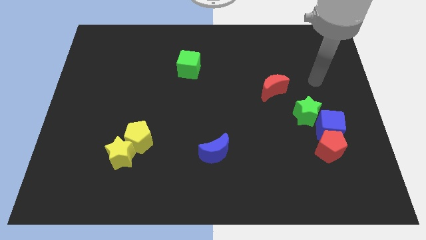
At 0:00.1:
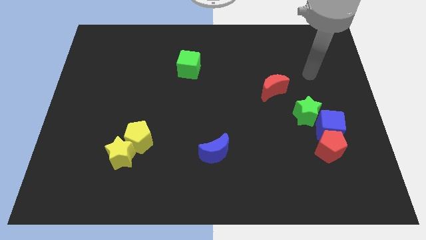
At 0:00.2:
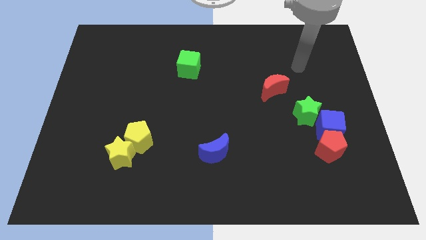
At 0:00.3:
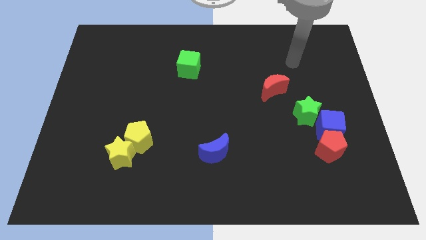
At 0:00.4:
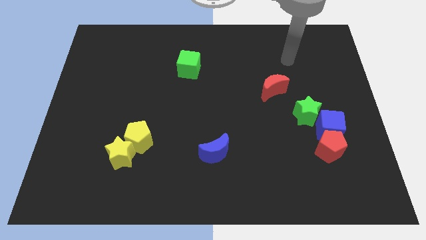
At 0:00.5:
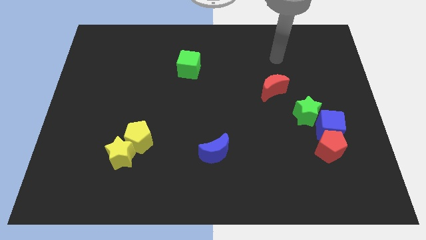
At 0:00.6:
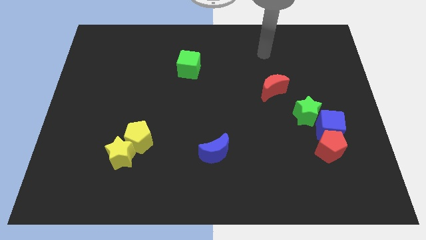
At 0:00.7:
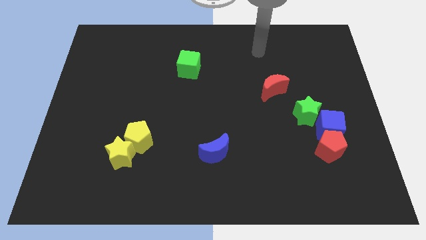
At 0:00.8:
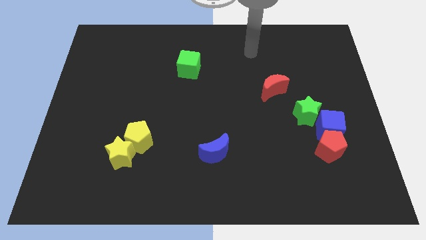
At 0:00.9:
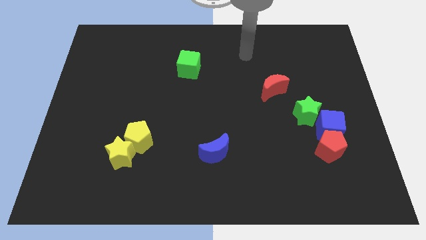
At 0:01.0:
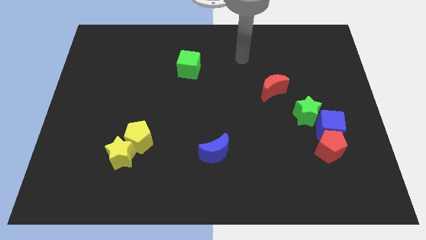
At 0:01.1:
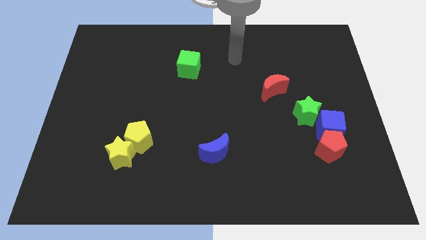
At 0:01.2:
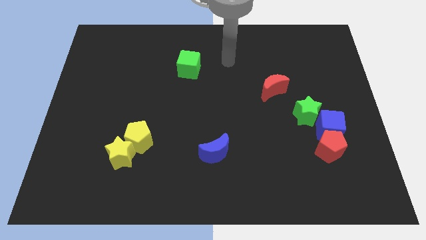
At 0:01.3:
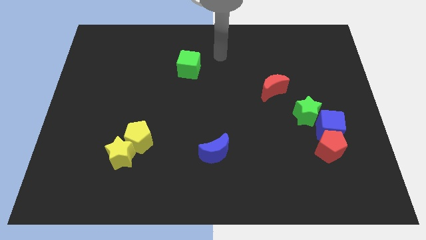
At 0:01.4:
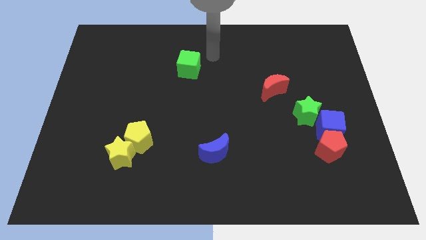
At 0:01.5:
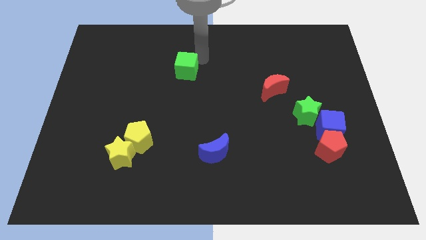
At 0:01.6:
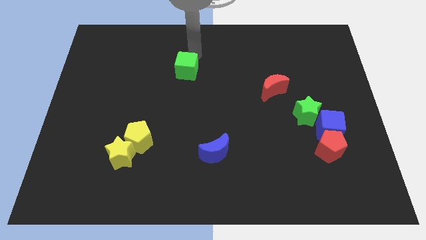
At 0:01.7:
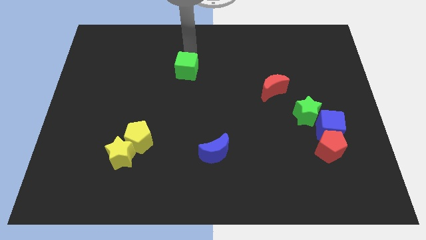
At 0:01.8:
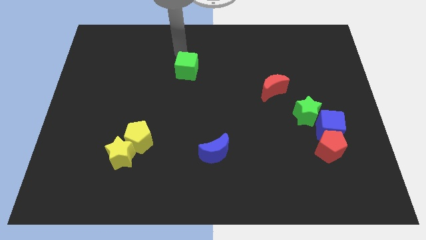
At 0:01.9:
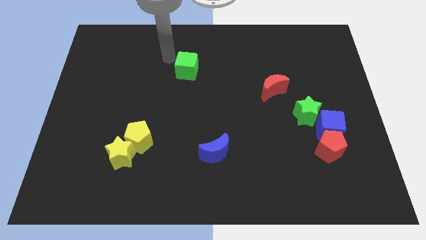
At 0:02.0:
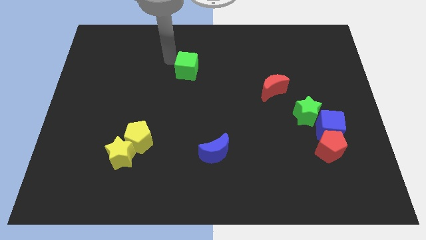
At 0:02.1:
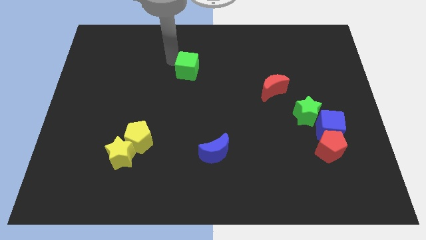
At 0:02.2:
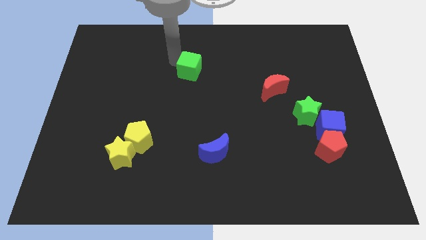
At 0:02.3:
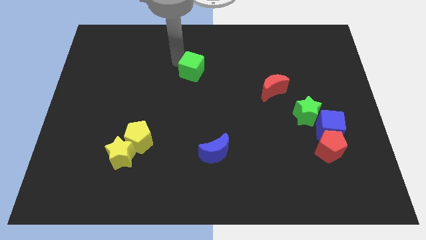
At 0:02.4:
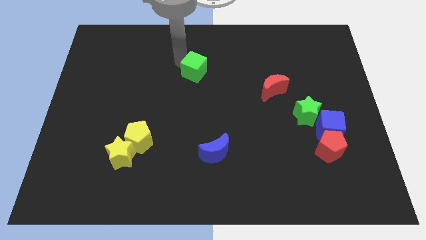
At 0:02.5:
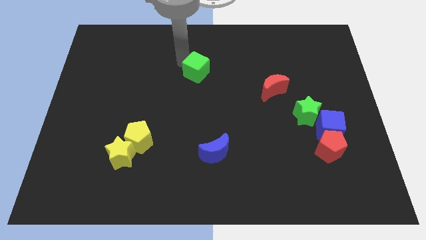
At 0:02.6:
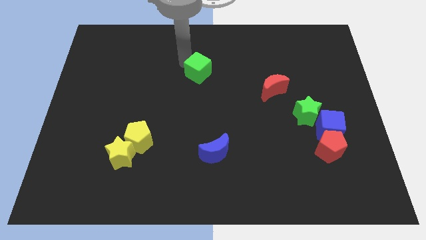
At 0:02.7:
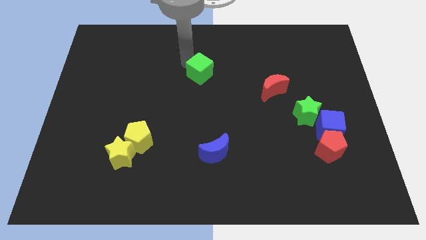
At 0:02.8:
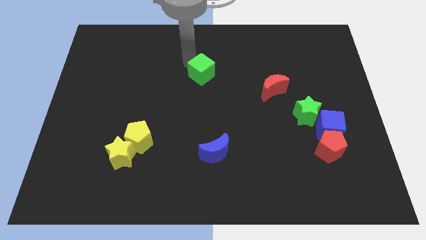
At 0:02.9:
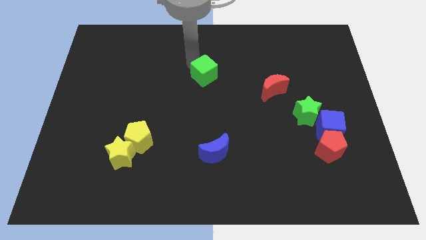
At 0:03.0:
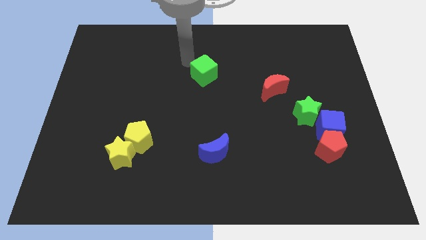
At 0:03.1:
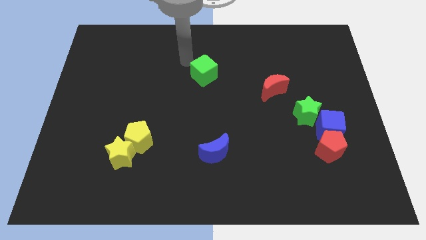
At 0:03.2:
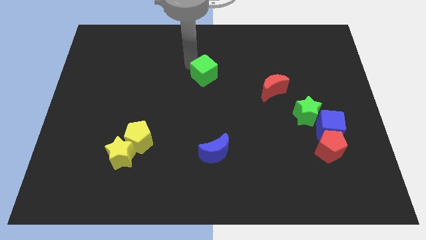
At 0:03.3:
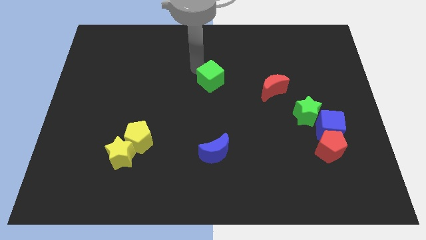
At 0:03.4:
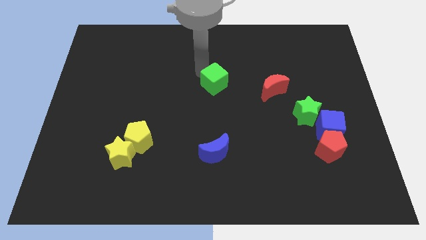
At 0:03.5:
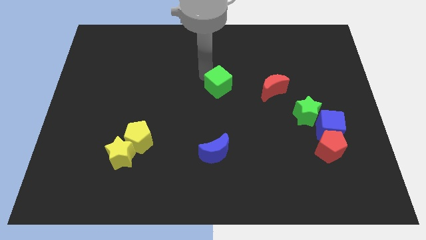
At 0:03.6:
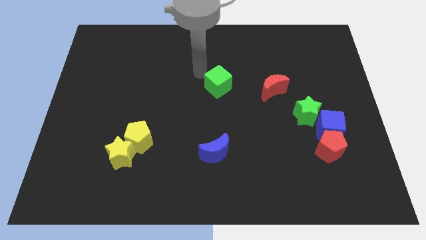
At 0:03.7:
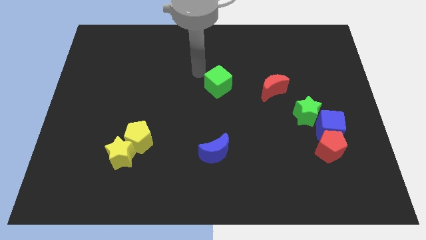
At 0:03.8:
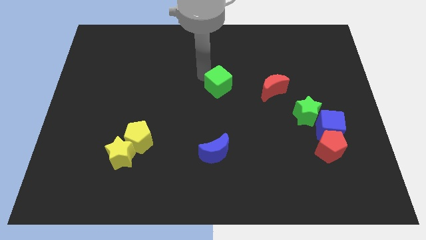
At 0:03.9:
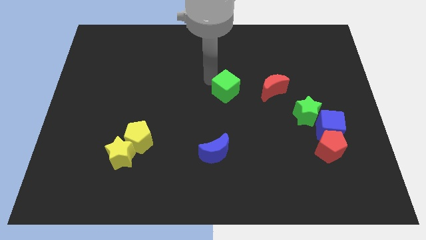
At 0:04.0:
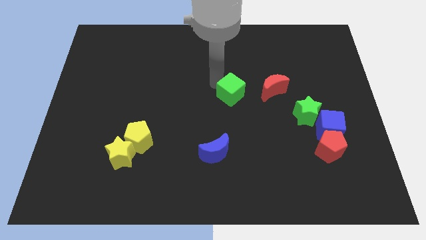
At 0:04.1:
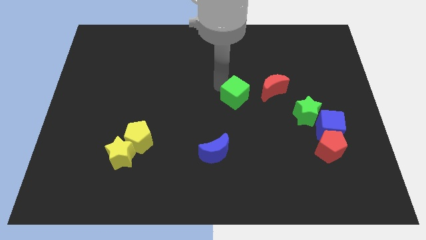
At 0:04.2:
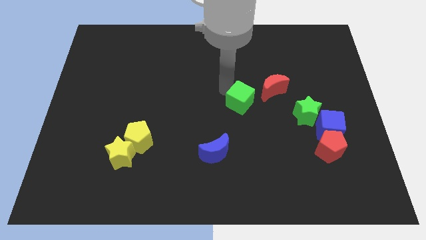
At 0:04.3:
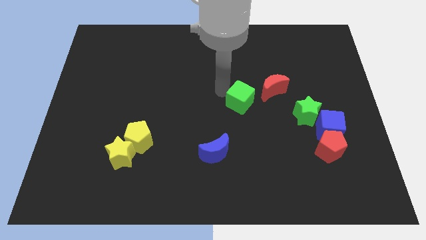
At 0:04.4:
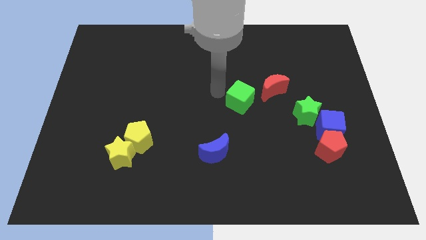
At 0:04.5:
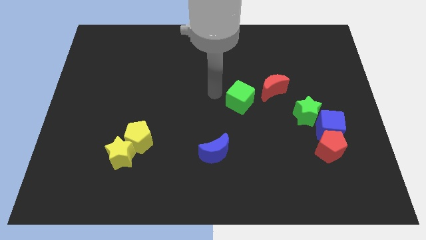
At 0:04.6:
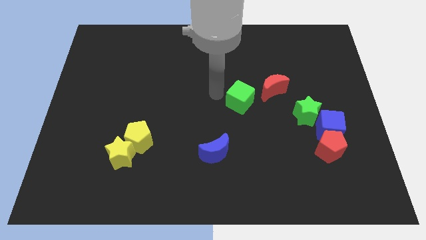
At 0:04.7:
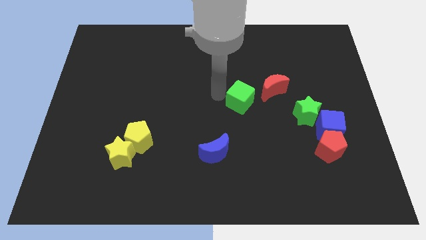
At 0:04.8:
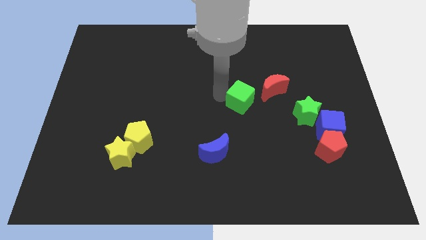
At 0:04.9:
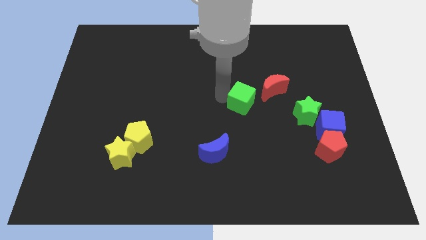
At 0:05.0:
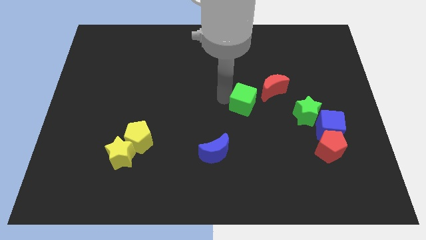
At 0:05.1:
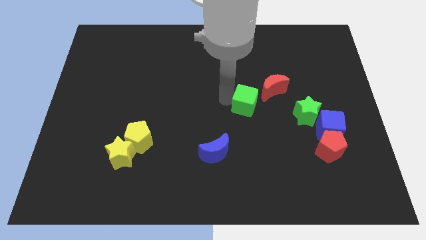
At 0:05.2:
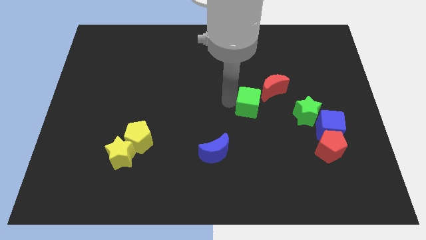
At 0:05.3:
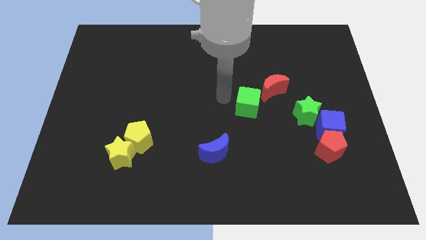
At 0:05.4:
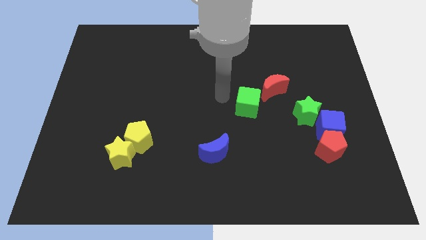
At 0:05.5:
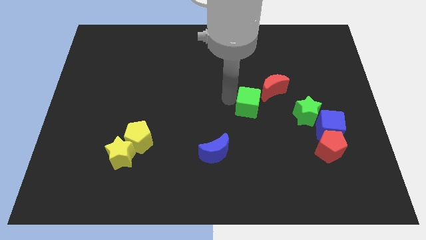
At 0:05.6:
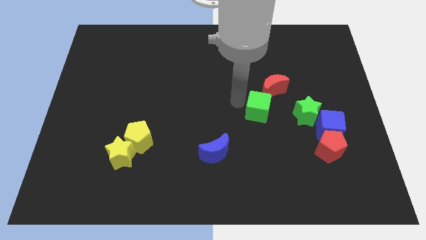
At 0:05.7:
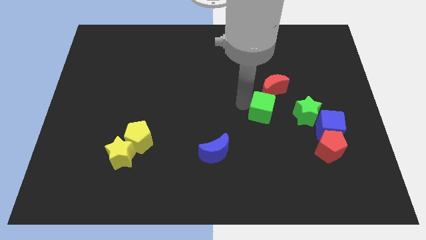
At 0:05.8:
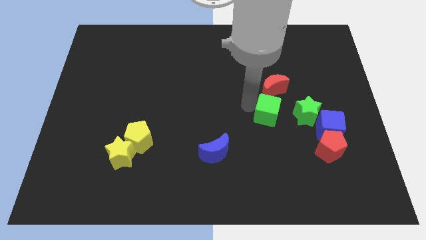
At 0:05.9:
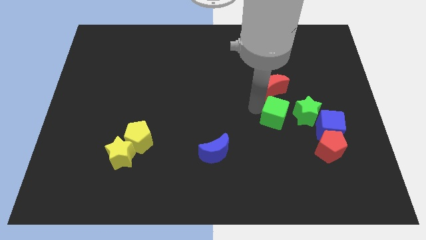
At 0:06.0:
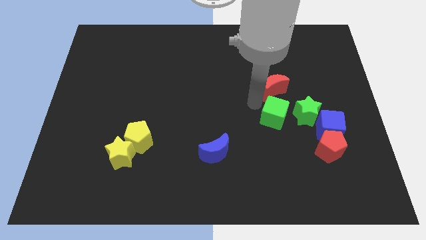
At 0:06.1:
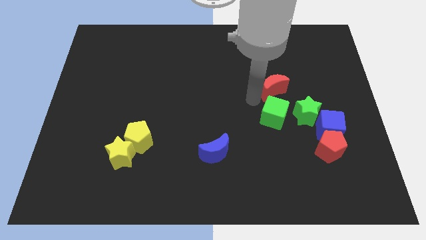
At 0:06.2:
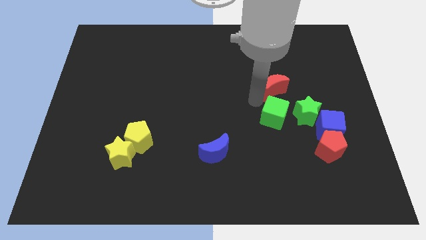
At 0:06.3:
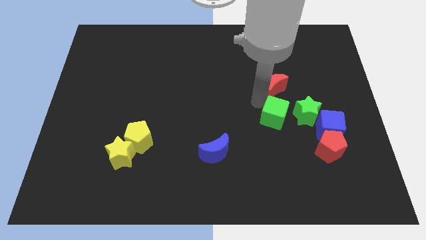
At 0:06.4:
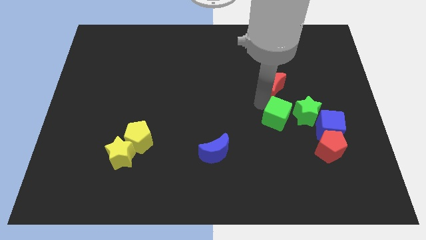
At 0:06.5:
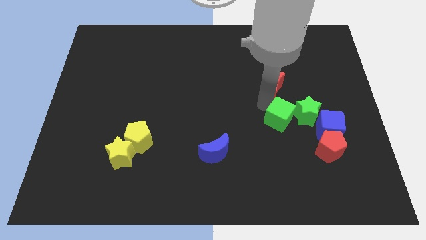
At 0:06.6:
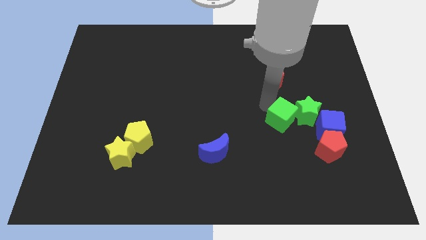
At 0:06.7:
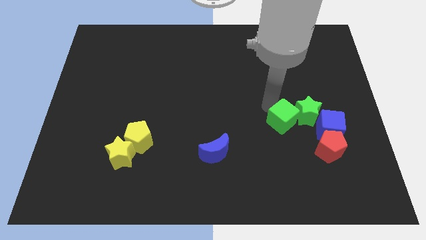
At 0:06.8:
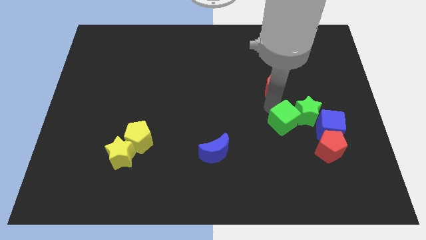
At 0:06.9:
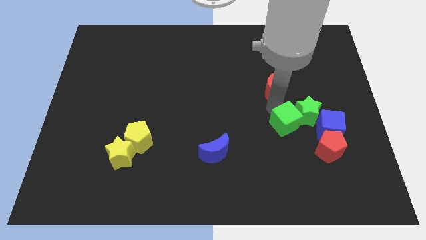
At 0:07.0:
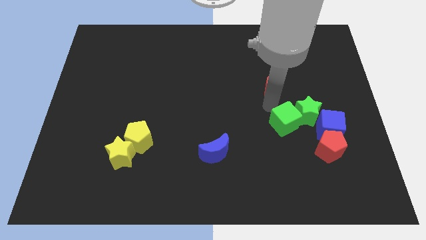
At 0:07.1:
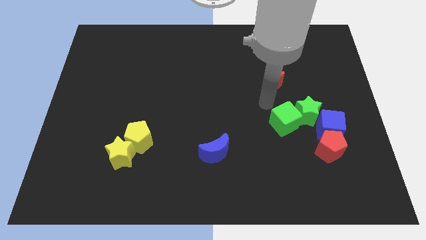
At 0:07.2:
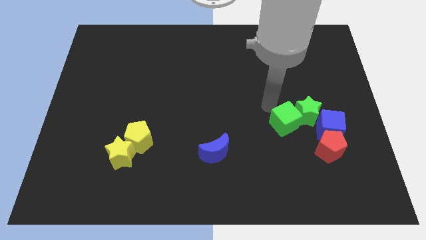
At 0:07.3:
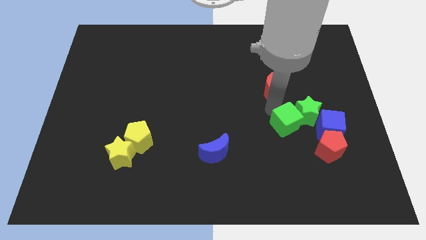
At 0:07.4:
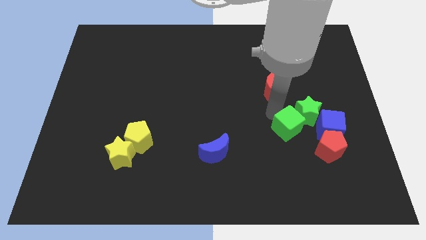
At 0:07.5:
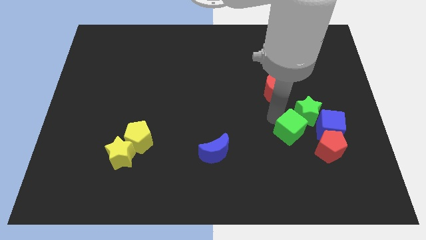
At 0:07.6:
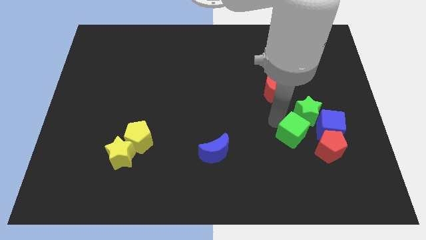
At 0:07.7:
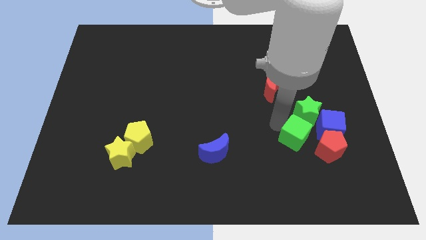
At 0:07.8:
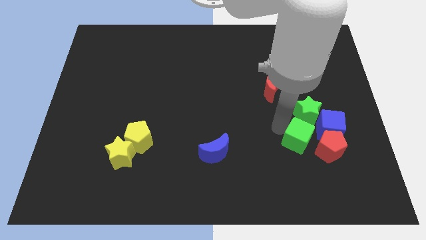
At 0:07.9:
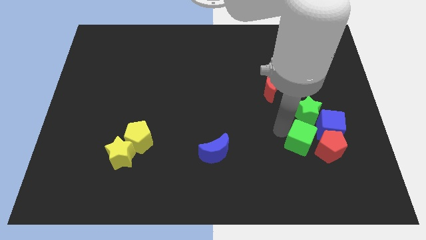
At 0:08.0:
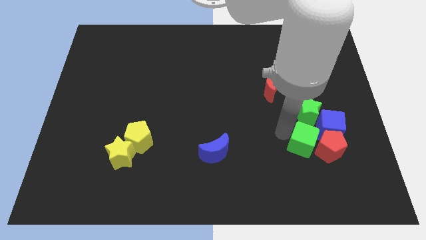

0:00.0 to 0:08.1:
push the green cube towards the red pentagon
